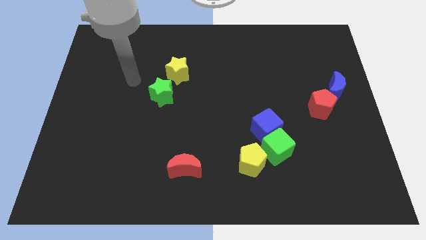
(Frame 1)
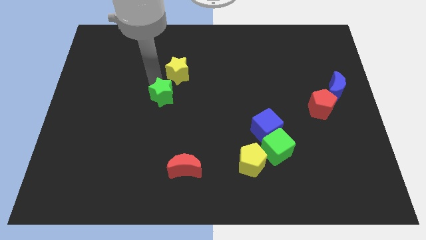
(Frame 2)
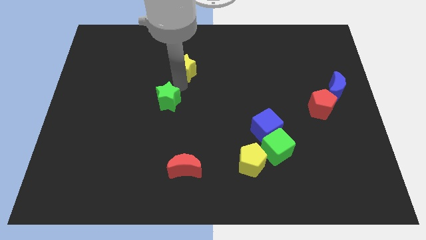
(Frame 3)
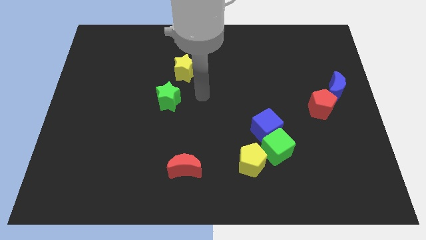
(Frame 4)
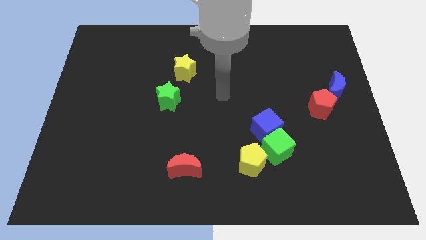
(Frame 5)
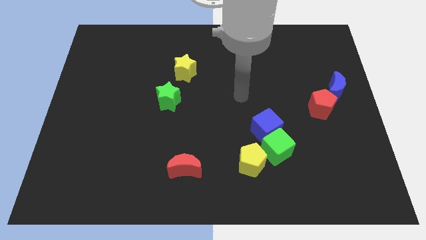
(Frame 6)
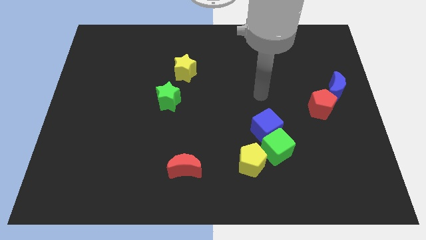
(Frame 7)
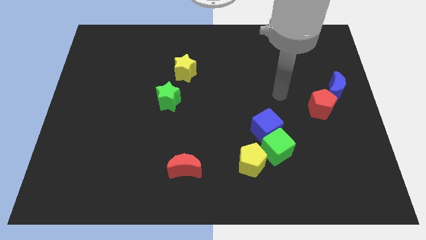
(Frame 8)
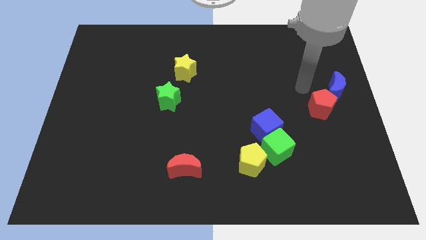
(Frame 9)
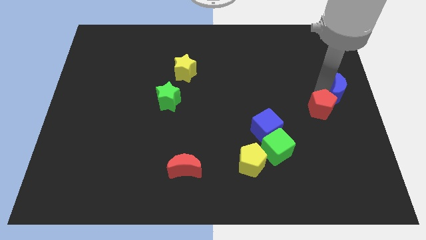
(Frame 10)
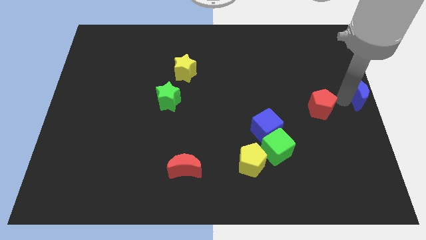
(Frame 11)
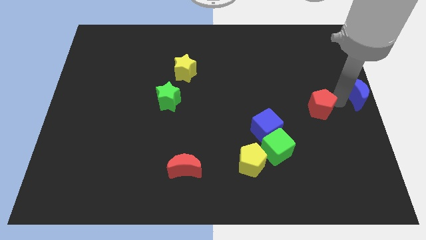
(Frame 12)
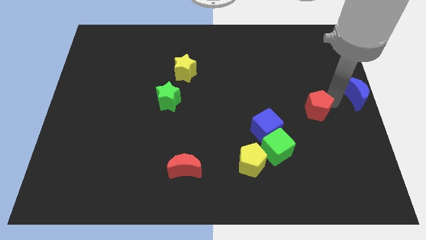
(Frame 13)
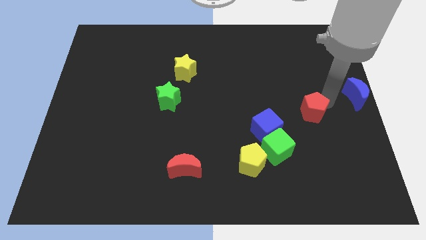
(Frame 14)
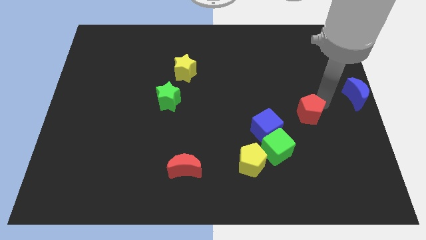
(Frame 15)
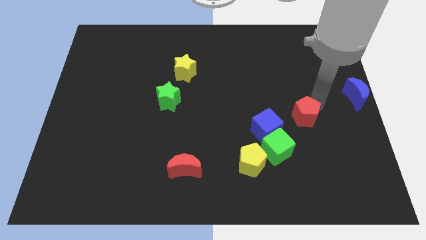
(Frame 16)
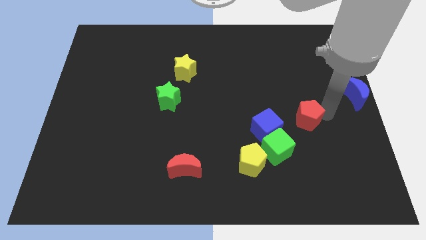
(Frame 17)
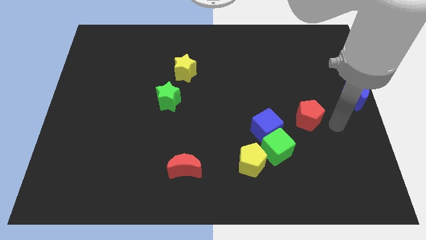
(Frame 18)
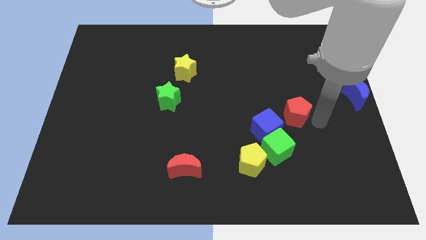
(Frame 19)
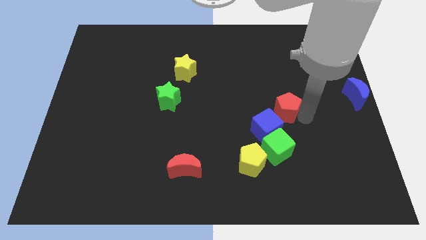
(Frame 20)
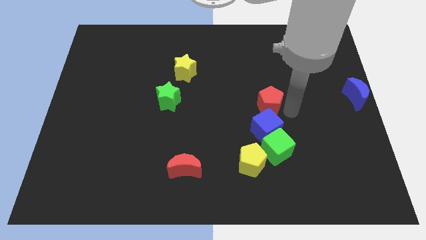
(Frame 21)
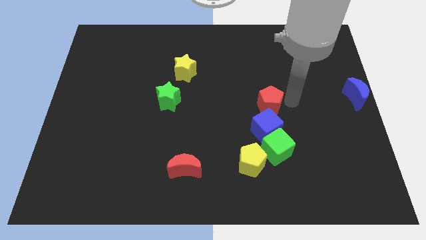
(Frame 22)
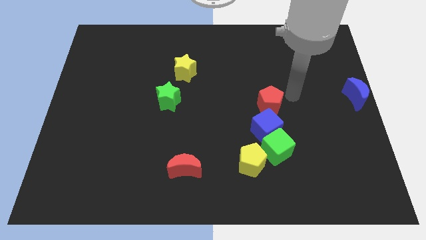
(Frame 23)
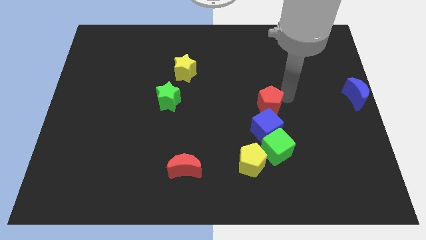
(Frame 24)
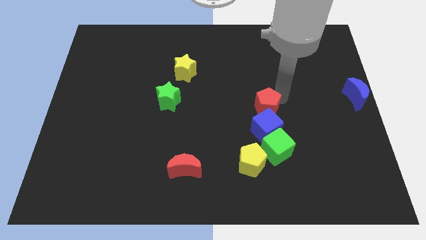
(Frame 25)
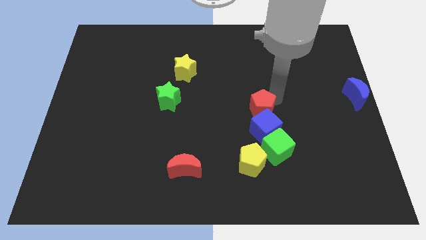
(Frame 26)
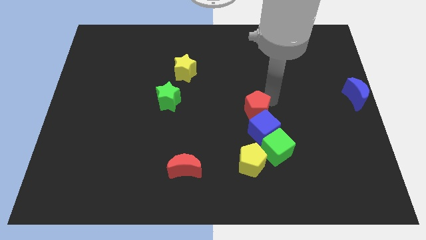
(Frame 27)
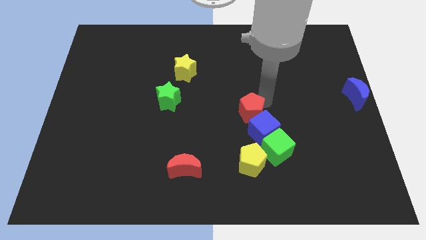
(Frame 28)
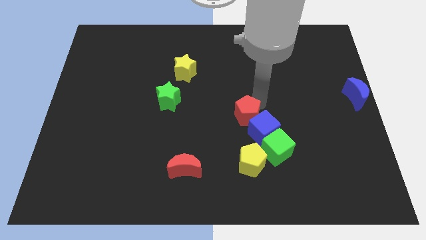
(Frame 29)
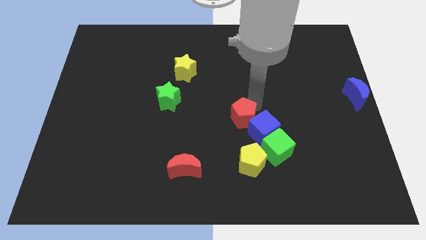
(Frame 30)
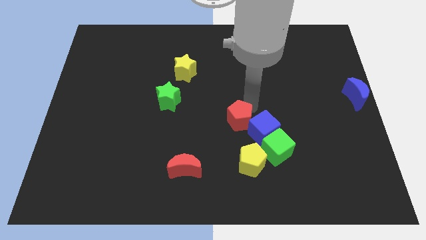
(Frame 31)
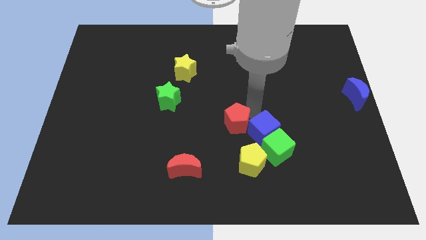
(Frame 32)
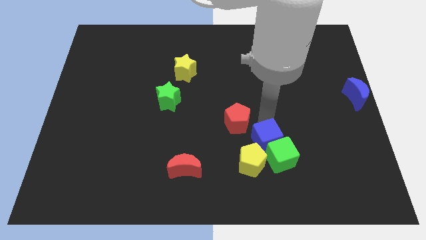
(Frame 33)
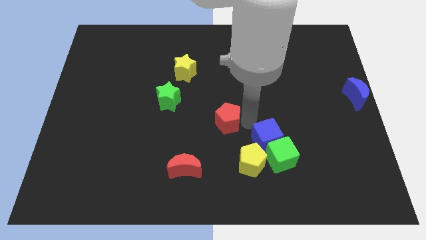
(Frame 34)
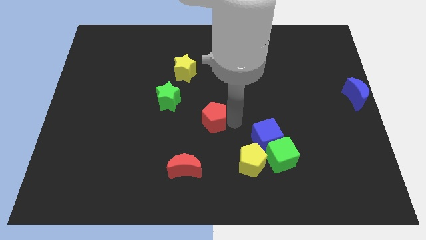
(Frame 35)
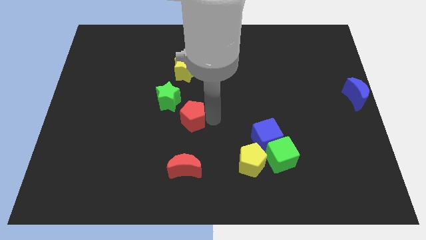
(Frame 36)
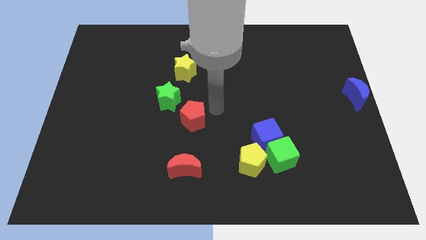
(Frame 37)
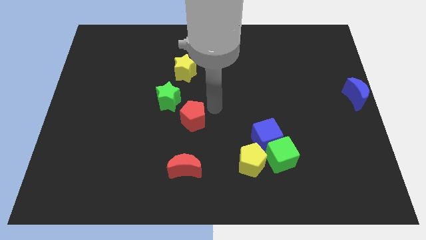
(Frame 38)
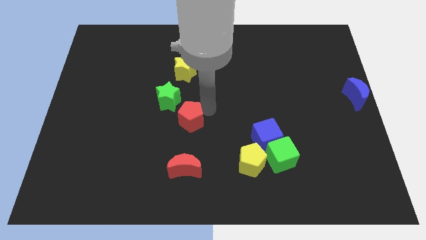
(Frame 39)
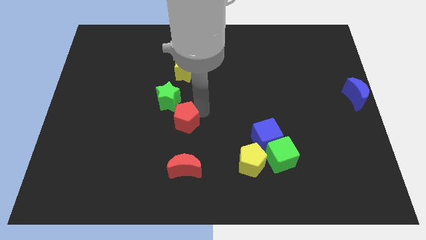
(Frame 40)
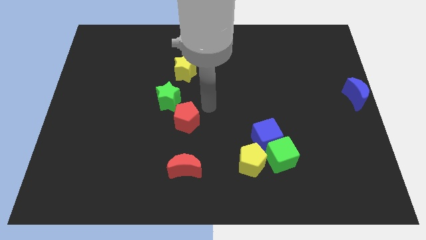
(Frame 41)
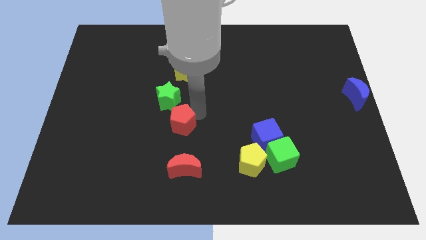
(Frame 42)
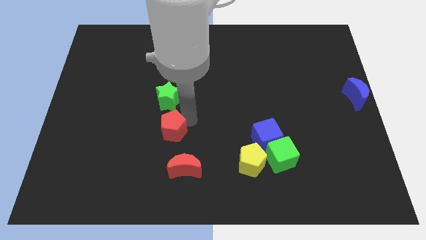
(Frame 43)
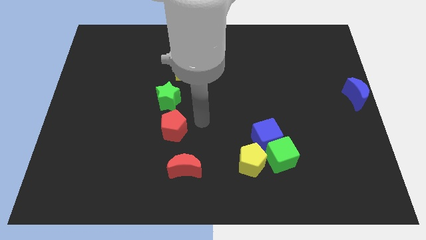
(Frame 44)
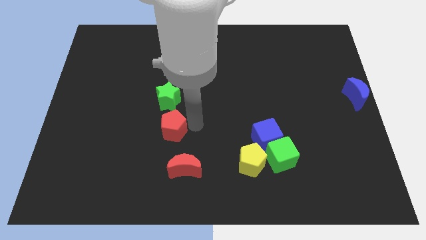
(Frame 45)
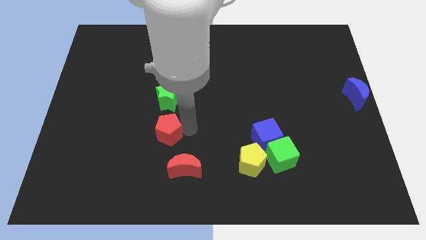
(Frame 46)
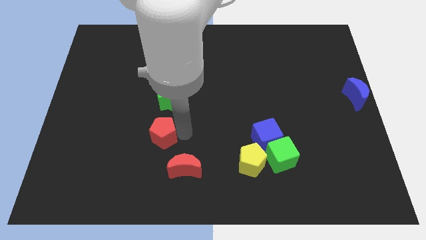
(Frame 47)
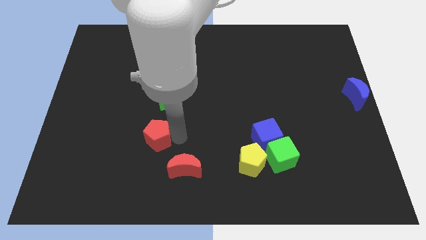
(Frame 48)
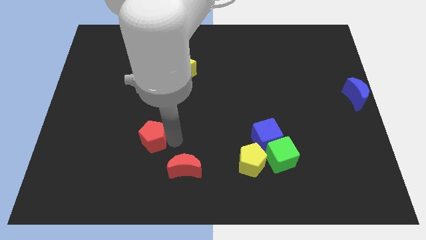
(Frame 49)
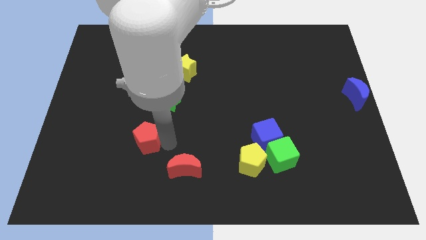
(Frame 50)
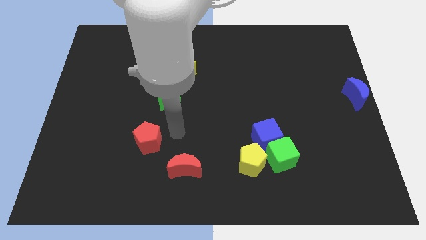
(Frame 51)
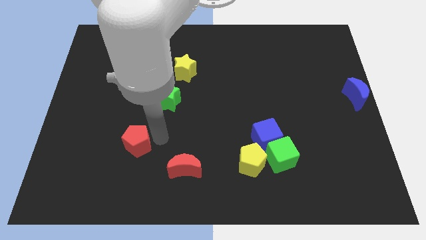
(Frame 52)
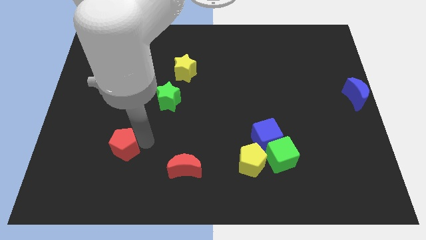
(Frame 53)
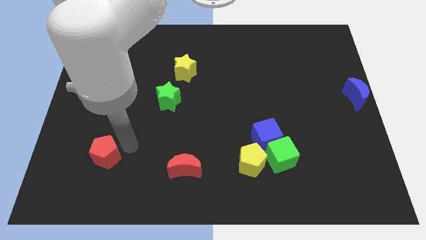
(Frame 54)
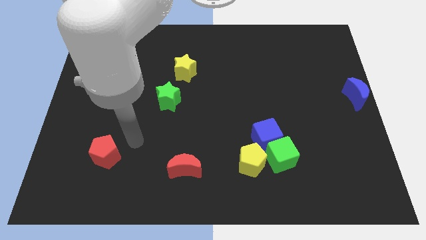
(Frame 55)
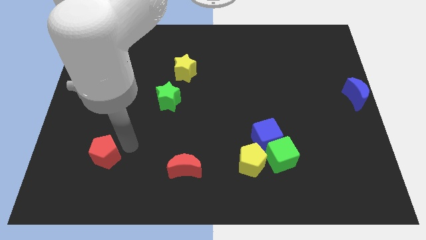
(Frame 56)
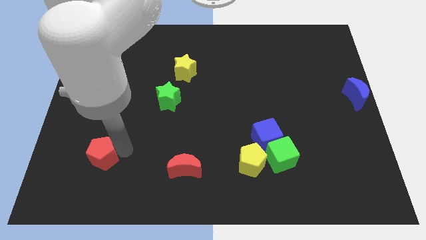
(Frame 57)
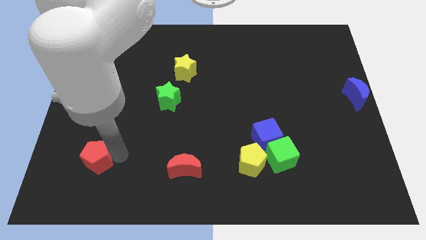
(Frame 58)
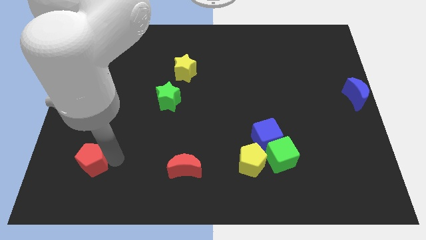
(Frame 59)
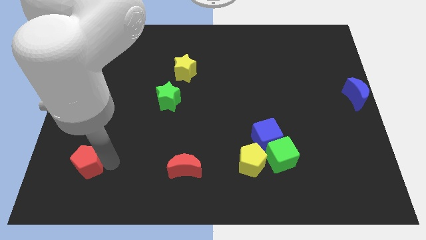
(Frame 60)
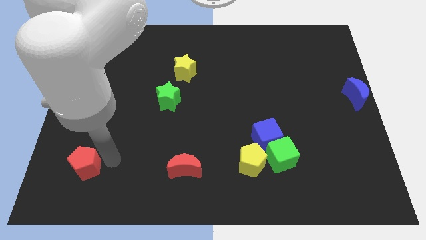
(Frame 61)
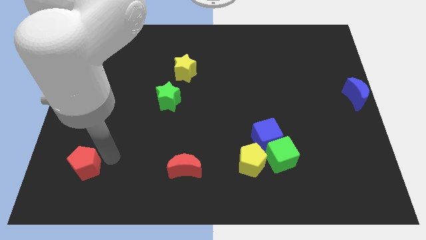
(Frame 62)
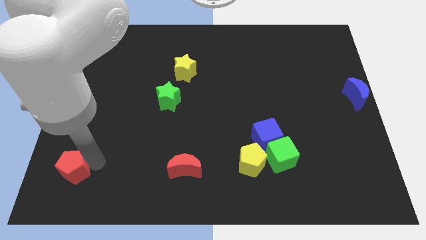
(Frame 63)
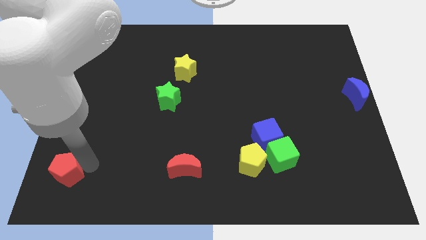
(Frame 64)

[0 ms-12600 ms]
push the red pentagon to the lower left corner

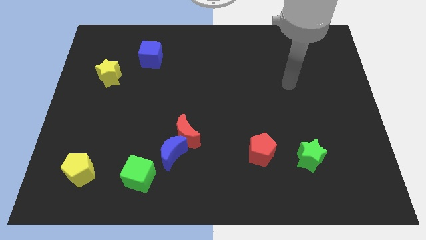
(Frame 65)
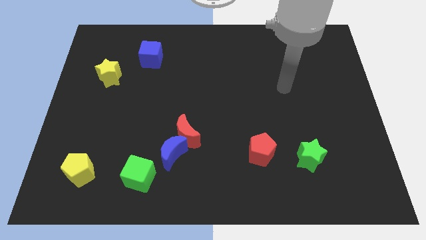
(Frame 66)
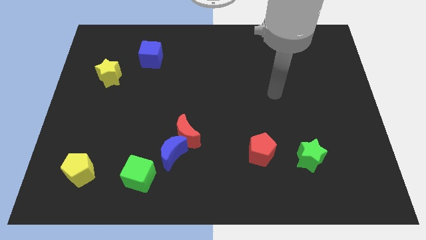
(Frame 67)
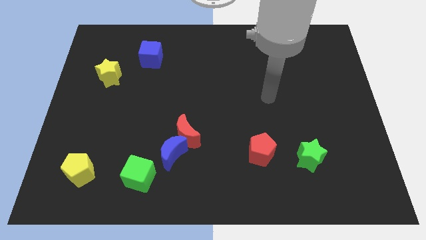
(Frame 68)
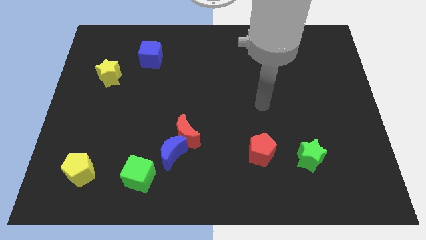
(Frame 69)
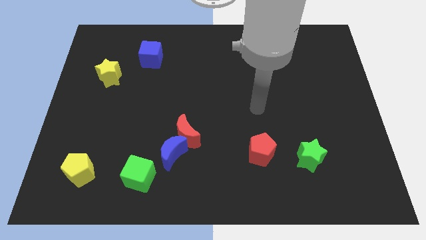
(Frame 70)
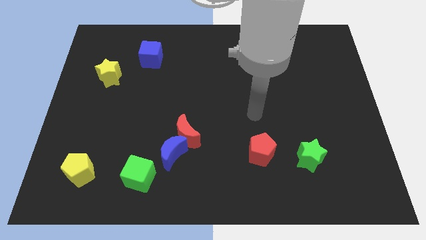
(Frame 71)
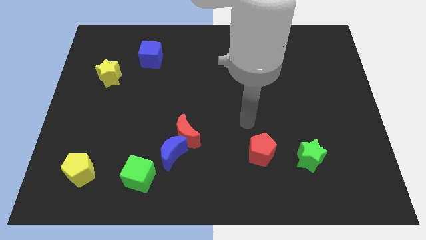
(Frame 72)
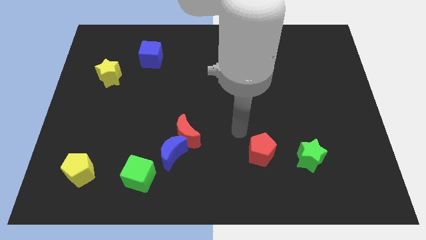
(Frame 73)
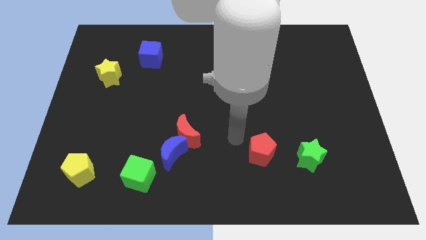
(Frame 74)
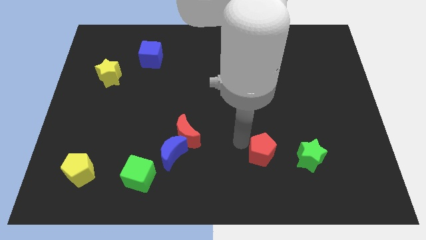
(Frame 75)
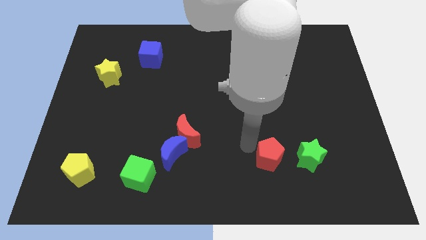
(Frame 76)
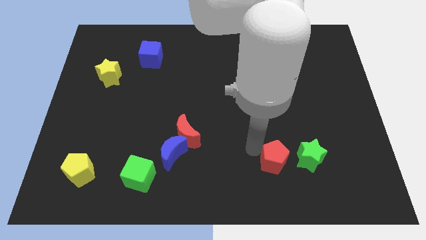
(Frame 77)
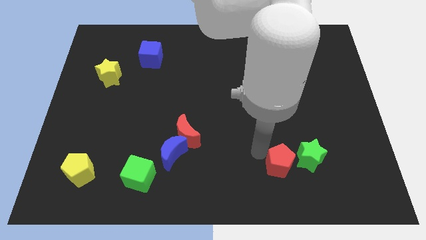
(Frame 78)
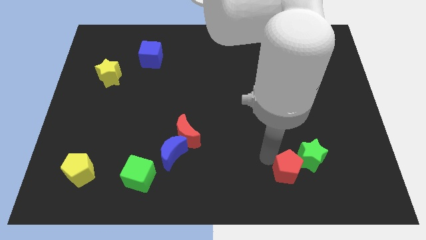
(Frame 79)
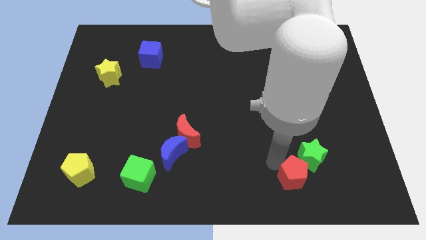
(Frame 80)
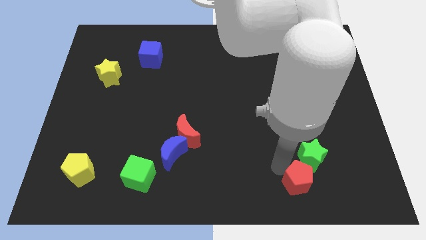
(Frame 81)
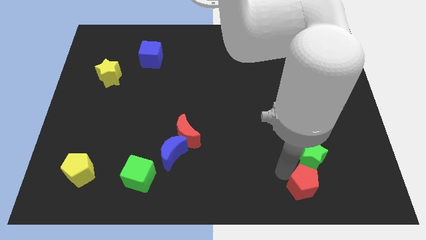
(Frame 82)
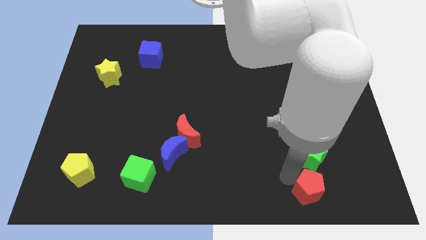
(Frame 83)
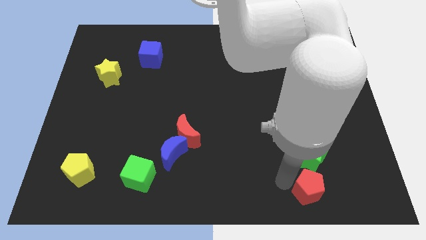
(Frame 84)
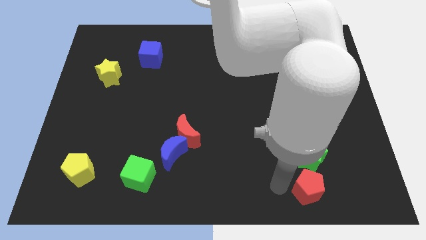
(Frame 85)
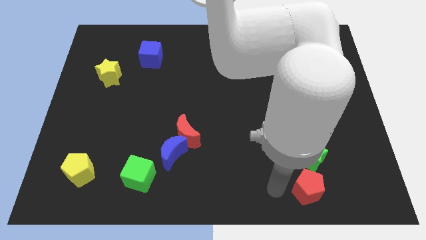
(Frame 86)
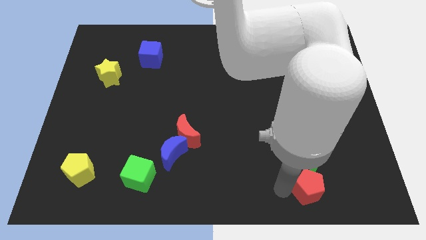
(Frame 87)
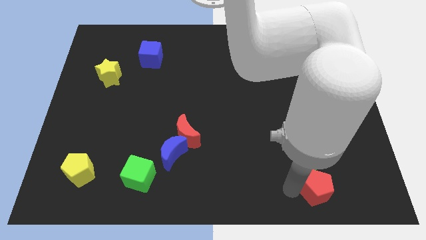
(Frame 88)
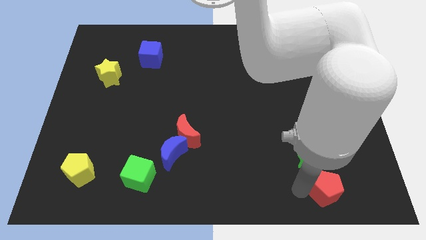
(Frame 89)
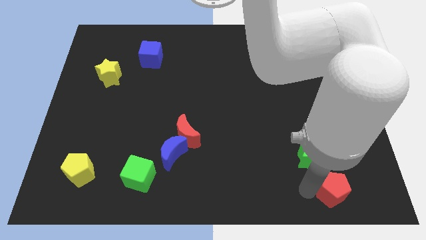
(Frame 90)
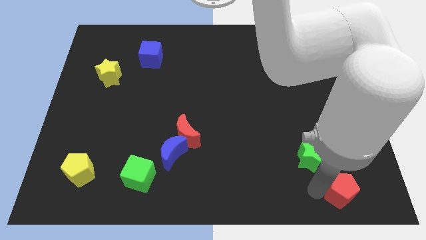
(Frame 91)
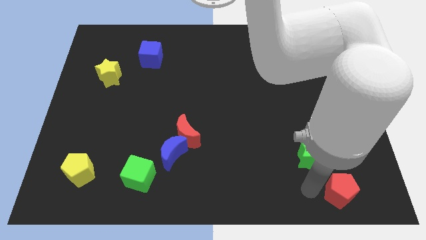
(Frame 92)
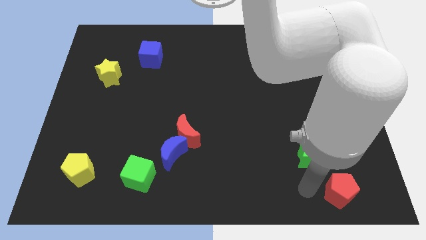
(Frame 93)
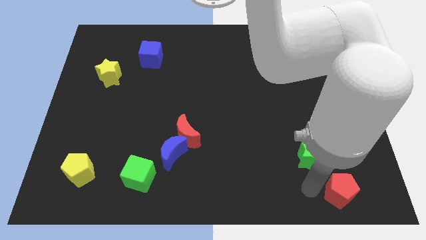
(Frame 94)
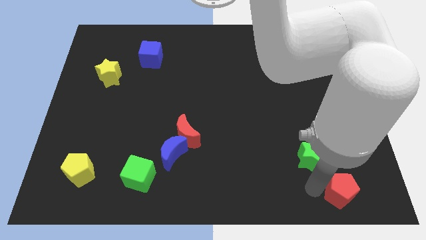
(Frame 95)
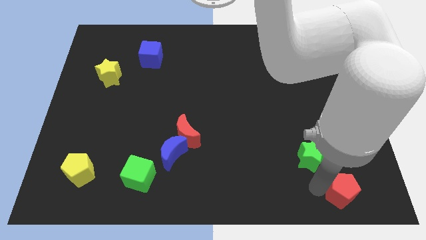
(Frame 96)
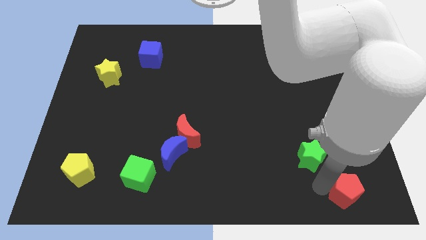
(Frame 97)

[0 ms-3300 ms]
put the red pentagon to the bottom right corner
